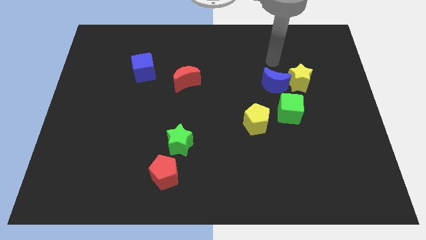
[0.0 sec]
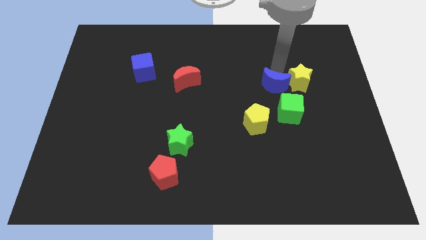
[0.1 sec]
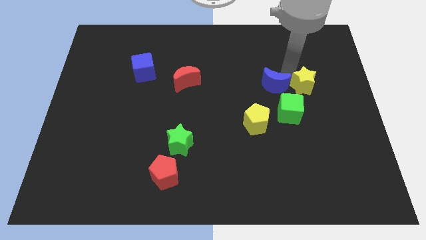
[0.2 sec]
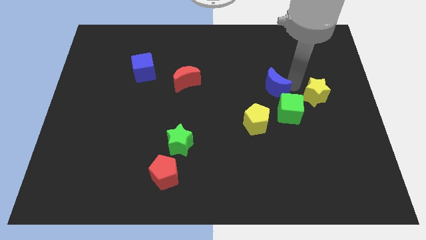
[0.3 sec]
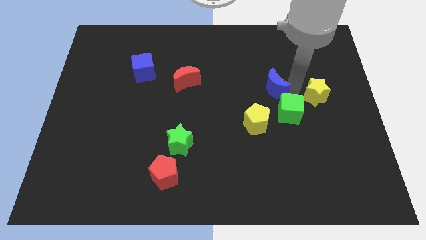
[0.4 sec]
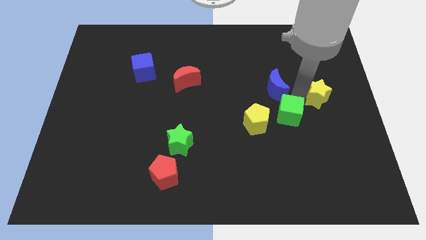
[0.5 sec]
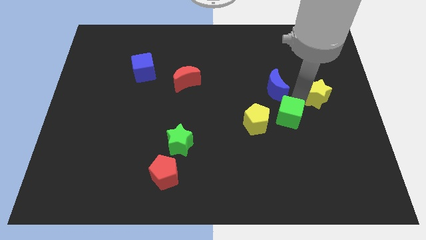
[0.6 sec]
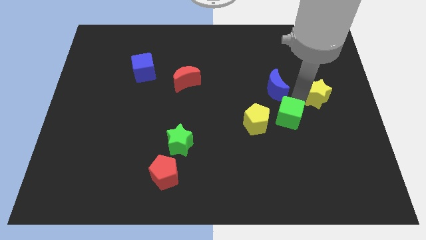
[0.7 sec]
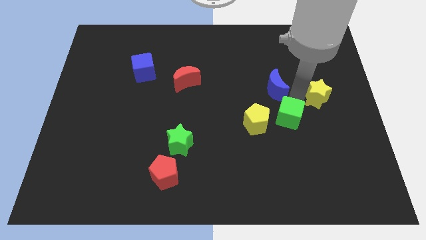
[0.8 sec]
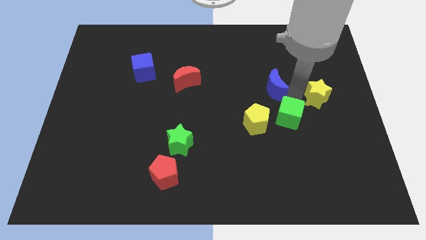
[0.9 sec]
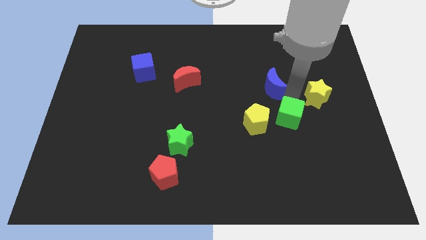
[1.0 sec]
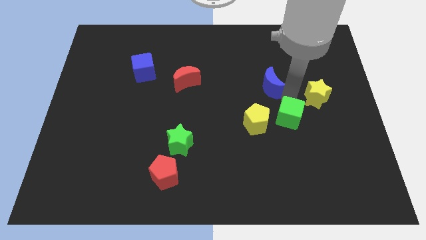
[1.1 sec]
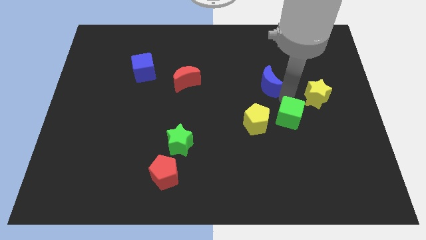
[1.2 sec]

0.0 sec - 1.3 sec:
pull the blue moon apart from the yellow star and green cube

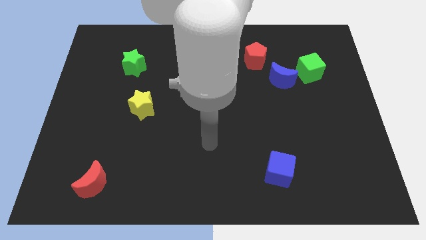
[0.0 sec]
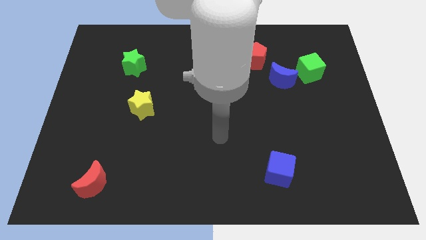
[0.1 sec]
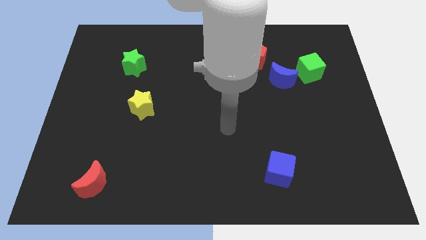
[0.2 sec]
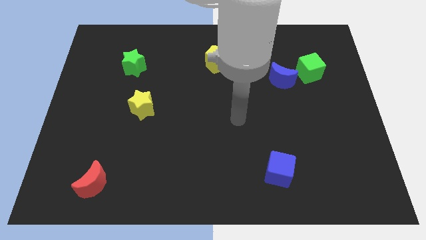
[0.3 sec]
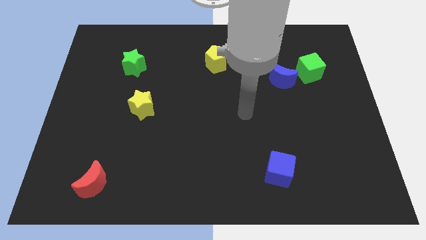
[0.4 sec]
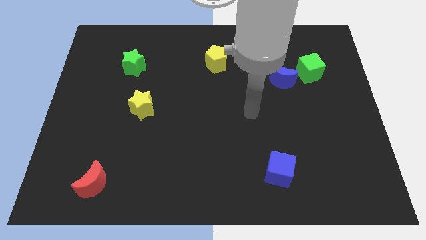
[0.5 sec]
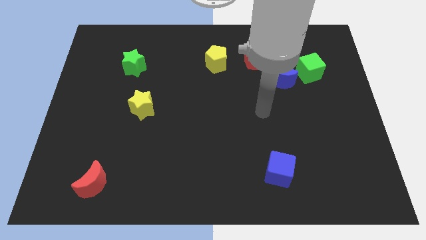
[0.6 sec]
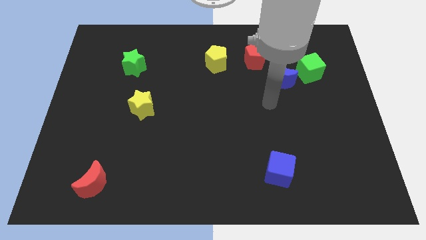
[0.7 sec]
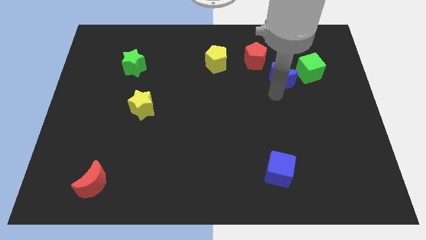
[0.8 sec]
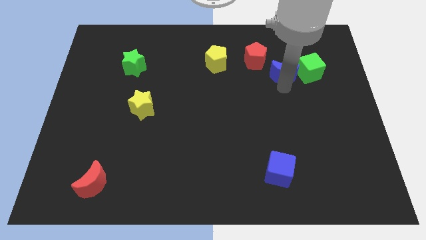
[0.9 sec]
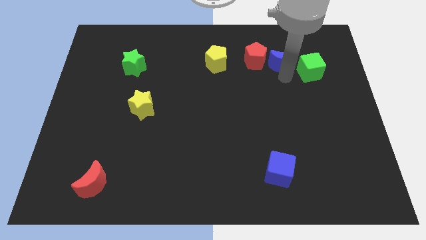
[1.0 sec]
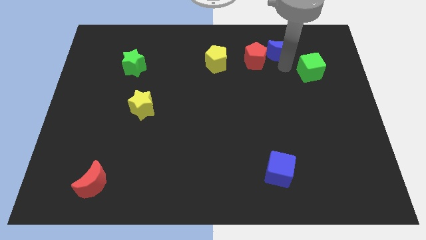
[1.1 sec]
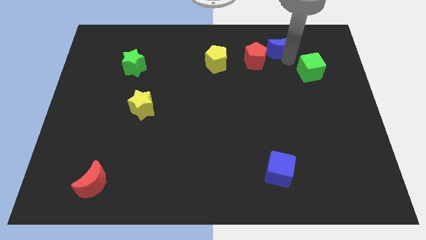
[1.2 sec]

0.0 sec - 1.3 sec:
pull the green cube apart from the blue moon

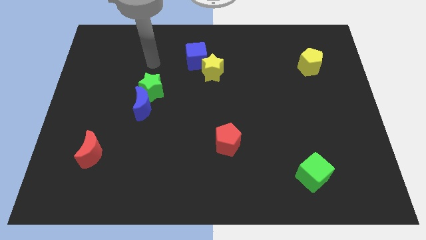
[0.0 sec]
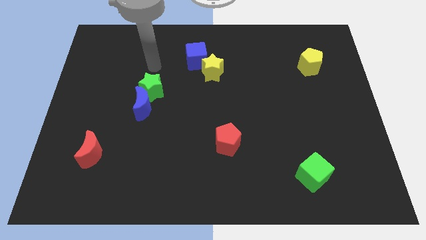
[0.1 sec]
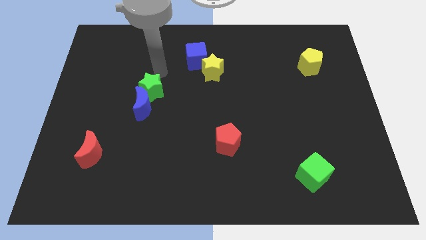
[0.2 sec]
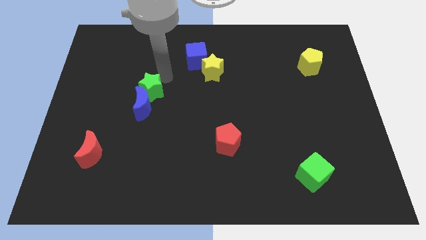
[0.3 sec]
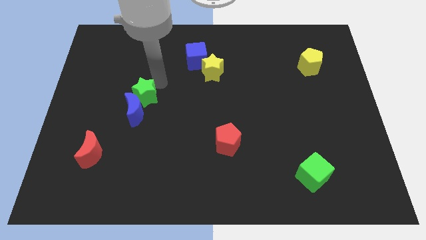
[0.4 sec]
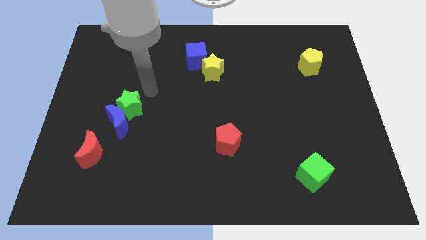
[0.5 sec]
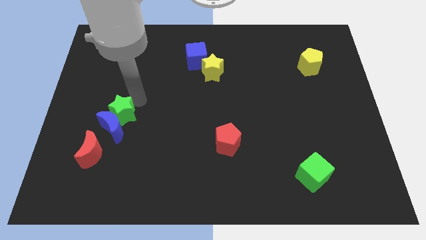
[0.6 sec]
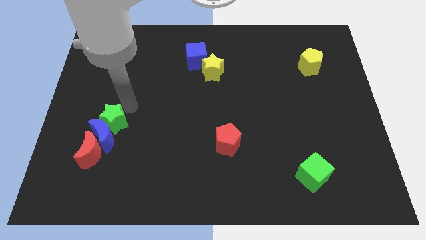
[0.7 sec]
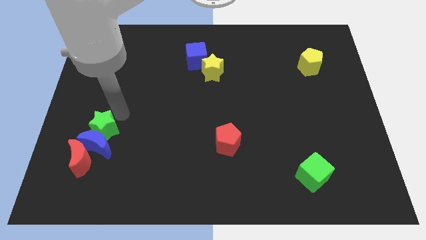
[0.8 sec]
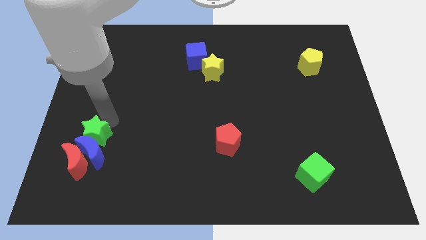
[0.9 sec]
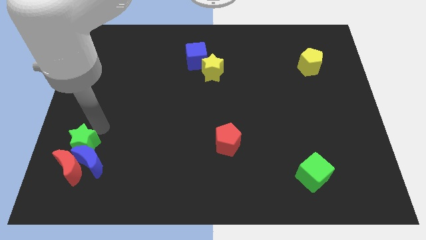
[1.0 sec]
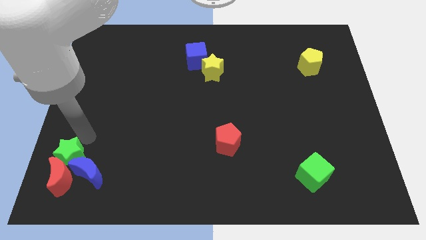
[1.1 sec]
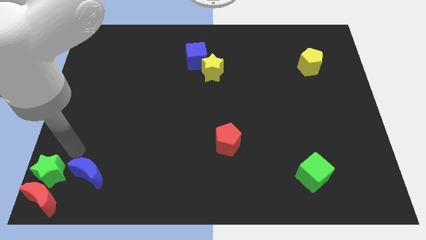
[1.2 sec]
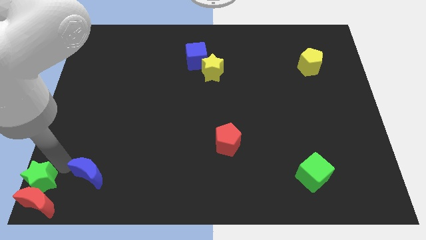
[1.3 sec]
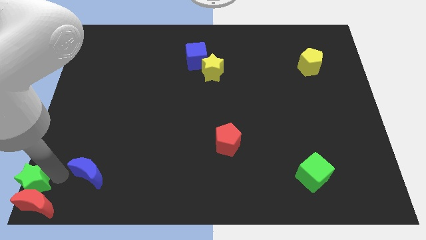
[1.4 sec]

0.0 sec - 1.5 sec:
pull the blue moon apart from the green star

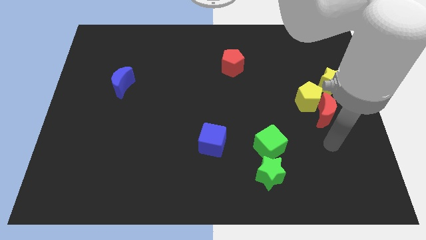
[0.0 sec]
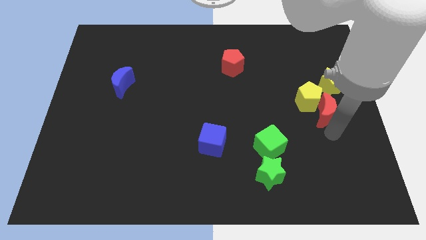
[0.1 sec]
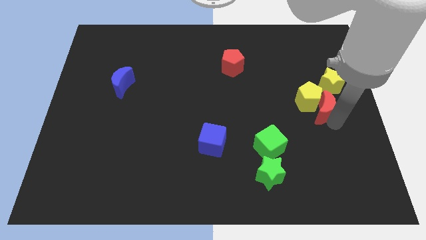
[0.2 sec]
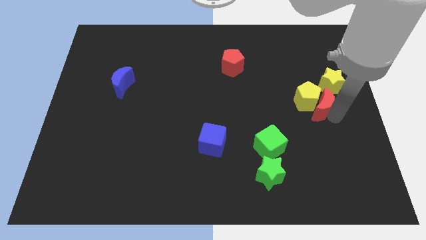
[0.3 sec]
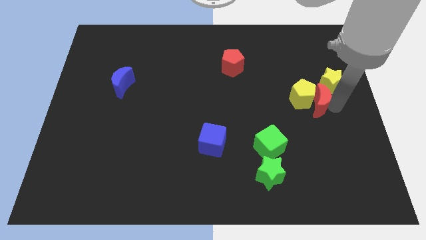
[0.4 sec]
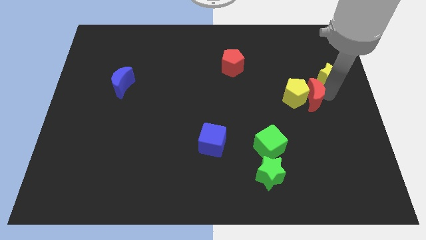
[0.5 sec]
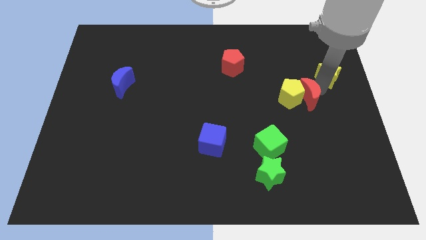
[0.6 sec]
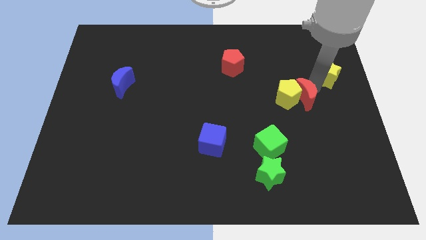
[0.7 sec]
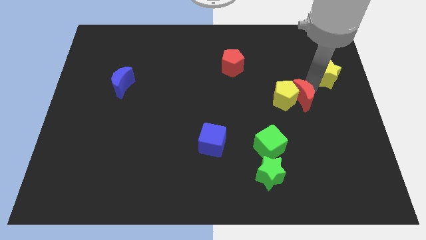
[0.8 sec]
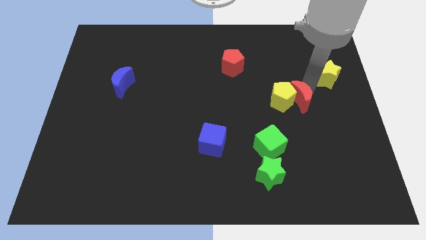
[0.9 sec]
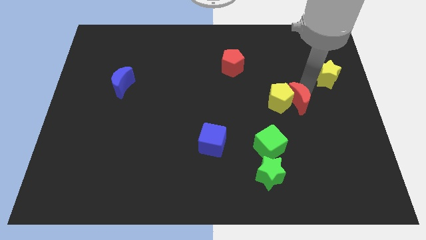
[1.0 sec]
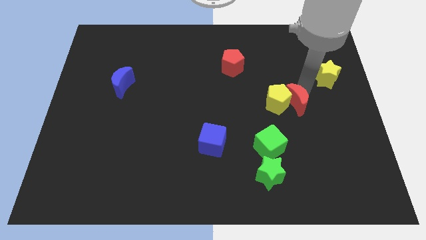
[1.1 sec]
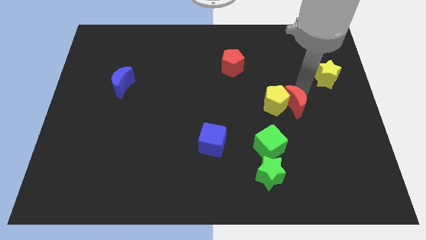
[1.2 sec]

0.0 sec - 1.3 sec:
move the yellow pentagon away from the red moon and yellow star

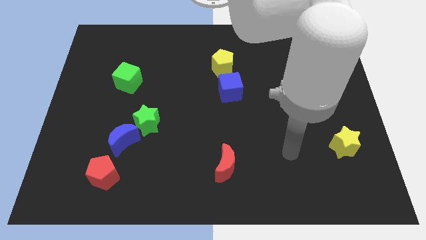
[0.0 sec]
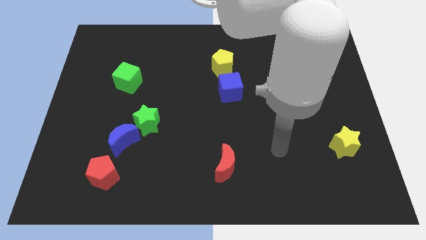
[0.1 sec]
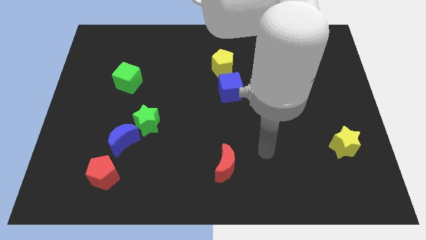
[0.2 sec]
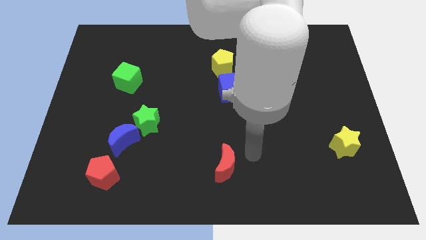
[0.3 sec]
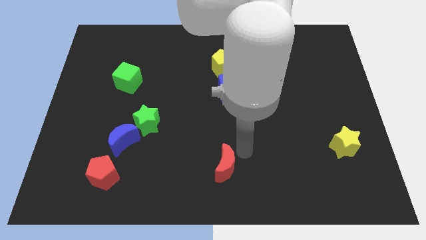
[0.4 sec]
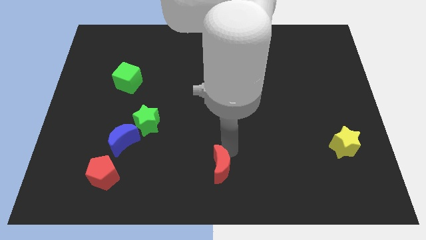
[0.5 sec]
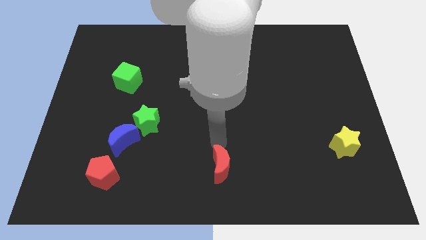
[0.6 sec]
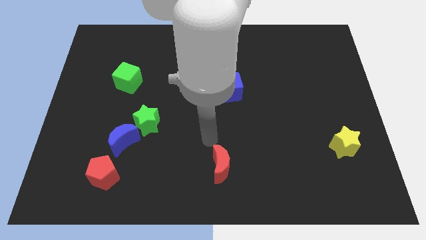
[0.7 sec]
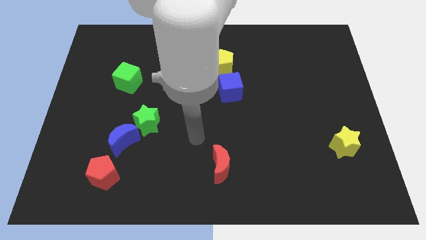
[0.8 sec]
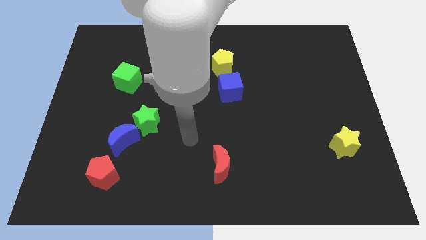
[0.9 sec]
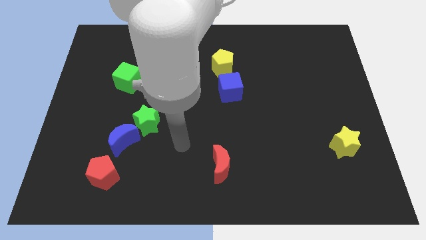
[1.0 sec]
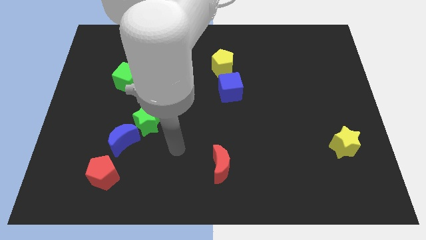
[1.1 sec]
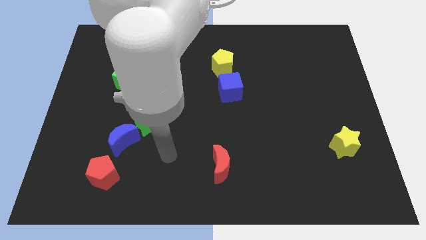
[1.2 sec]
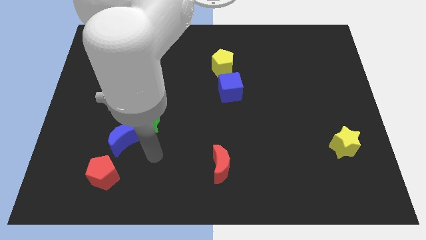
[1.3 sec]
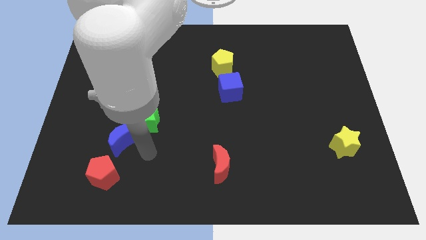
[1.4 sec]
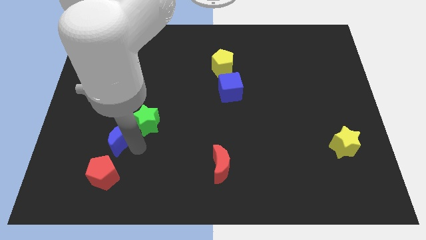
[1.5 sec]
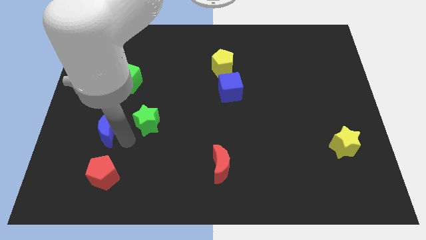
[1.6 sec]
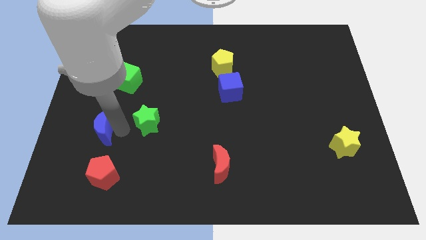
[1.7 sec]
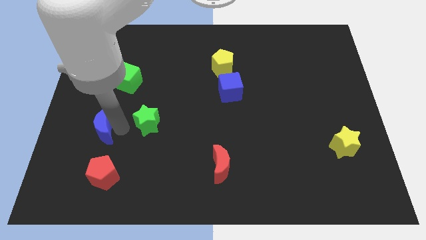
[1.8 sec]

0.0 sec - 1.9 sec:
move the green star away from the blue moon

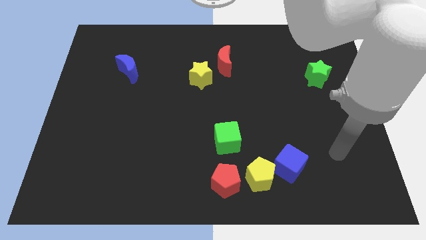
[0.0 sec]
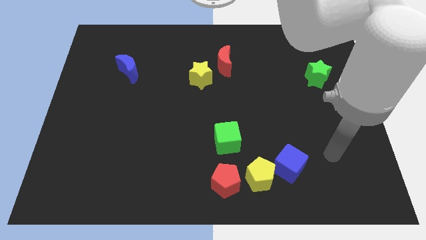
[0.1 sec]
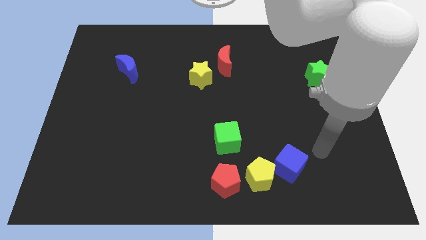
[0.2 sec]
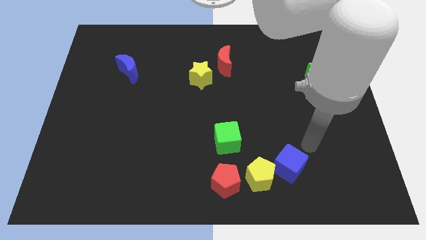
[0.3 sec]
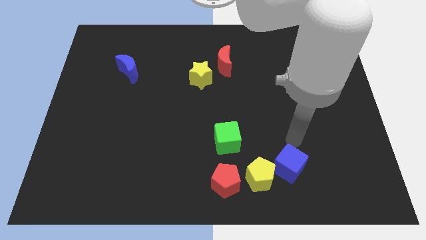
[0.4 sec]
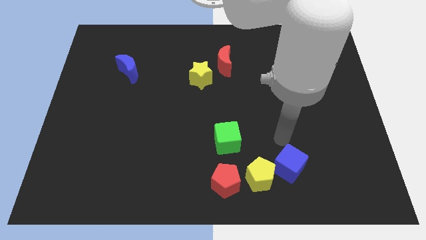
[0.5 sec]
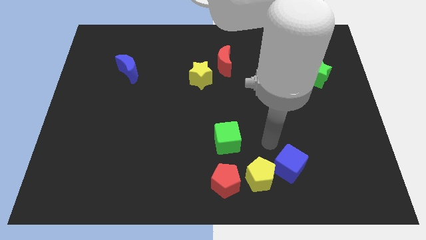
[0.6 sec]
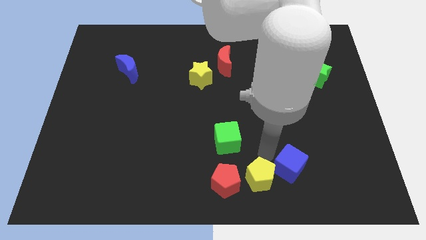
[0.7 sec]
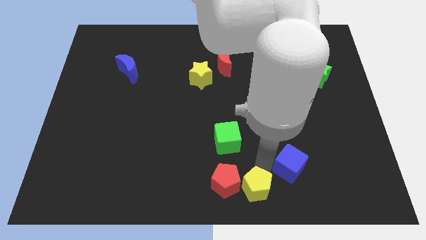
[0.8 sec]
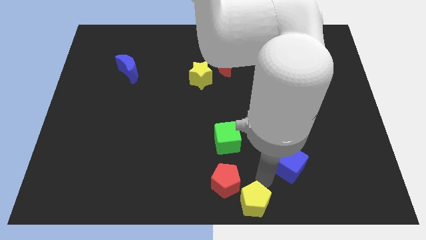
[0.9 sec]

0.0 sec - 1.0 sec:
separate the blue cube from the yellow pentagon

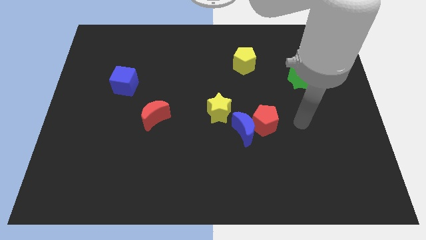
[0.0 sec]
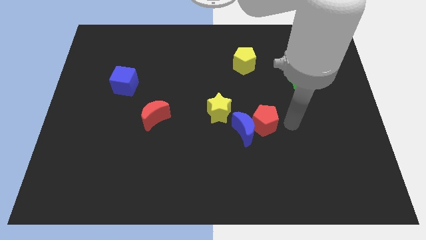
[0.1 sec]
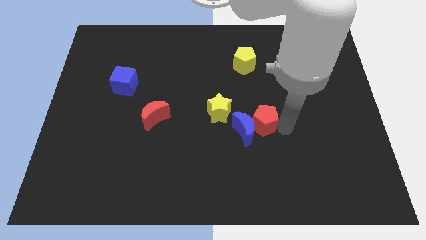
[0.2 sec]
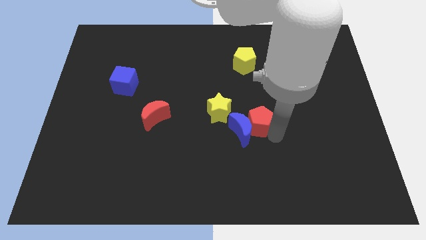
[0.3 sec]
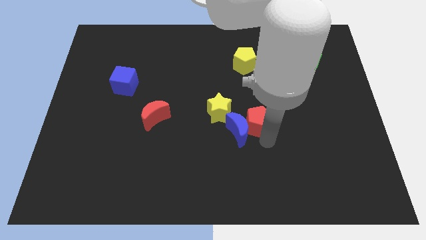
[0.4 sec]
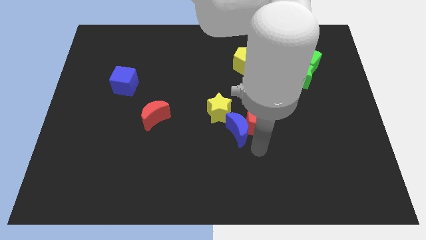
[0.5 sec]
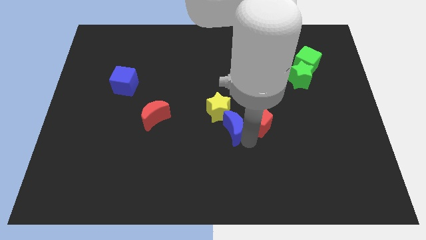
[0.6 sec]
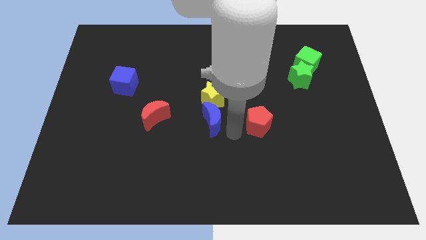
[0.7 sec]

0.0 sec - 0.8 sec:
pull the red pentagon apart from the blue moon

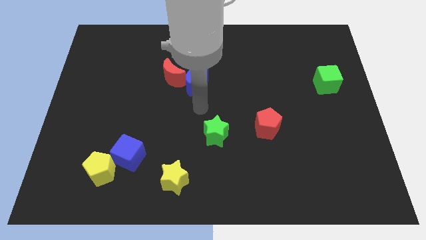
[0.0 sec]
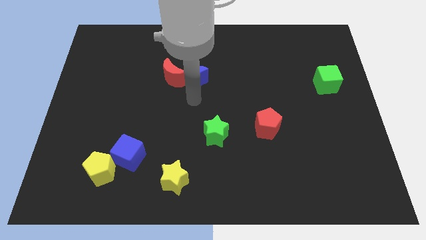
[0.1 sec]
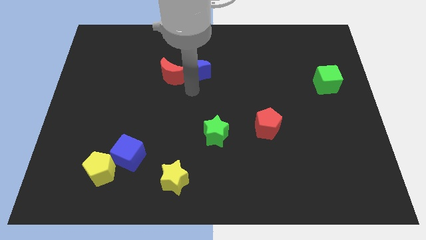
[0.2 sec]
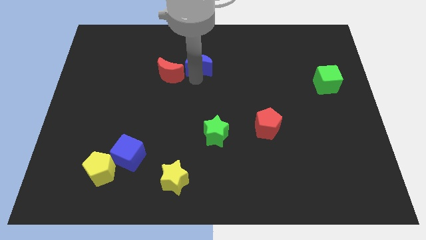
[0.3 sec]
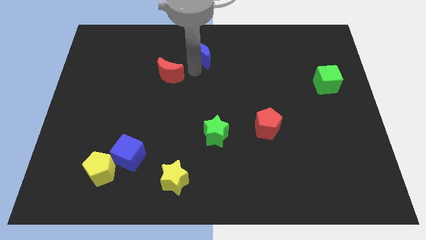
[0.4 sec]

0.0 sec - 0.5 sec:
pull the red moon apart from the blue moon
